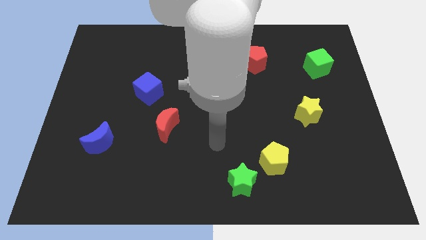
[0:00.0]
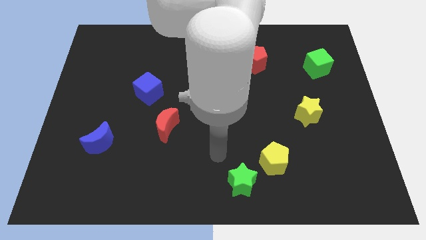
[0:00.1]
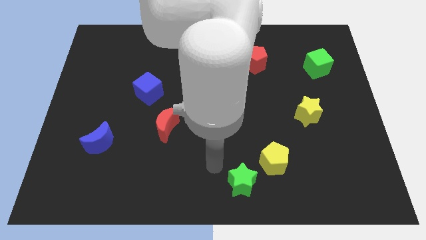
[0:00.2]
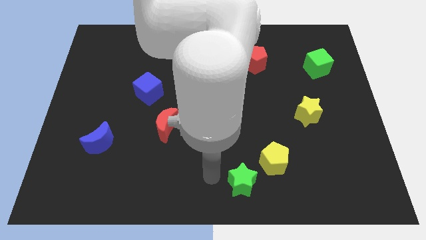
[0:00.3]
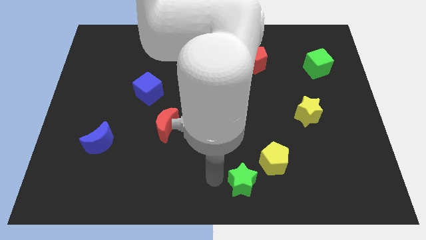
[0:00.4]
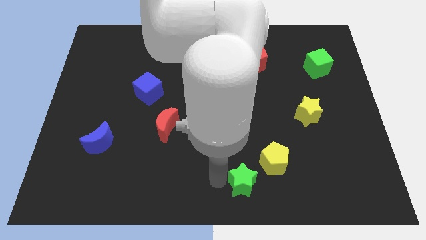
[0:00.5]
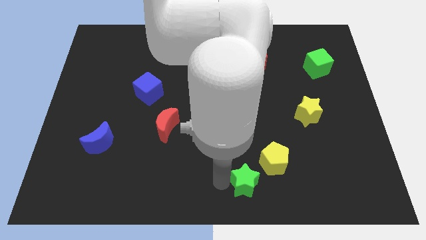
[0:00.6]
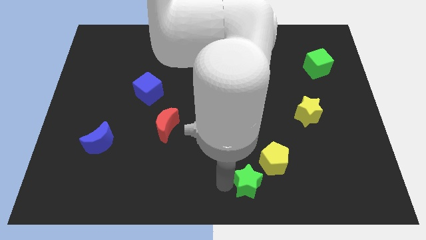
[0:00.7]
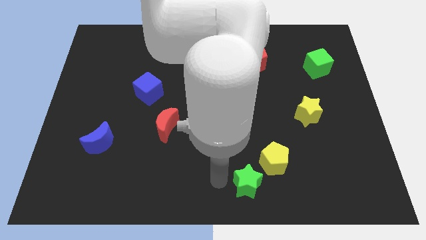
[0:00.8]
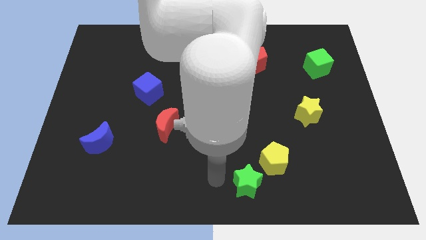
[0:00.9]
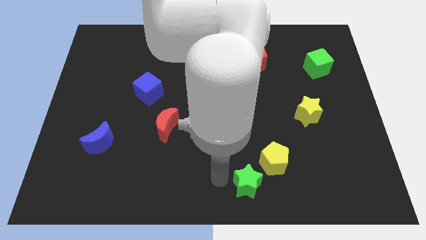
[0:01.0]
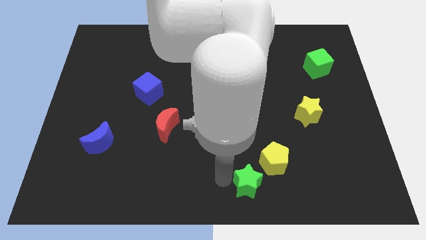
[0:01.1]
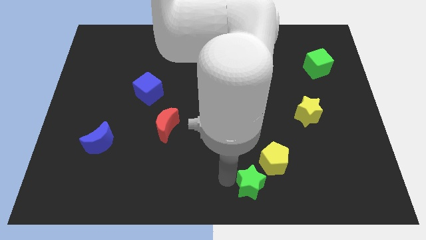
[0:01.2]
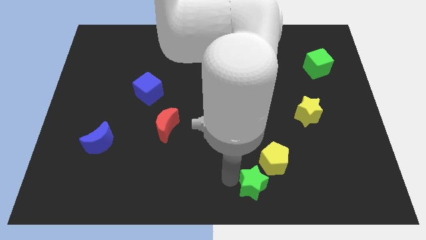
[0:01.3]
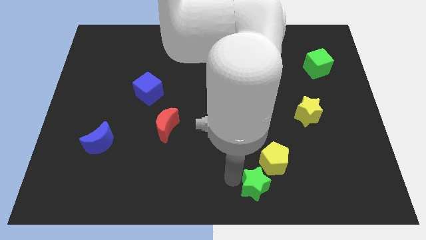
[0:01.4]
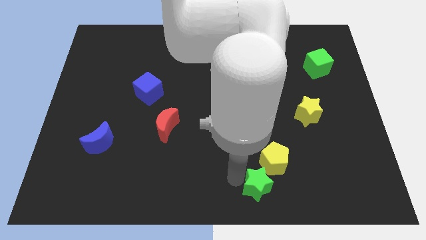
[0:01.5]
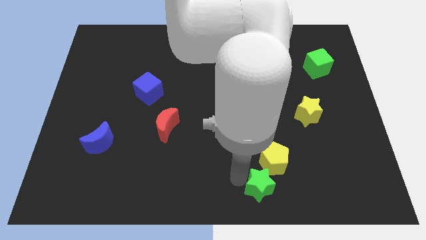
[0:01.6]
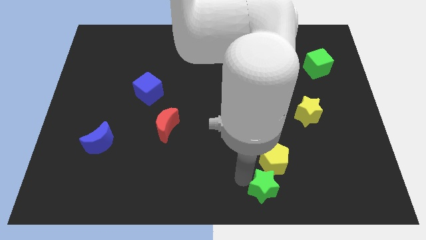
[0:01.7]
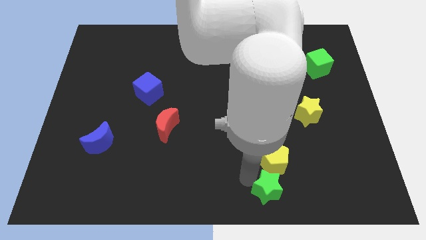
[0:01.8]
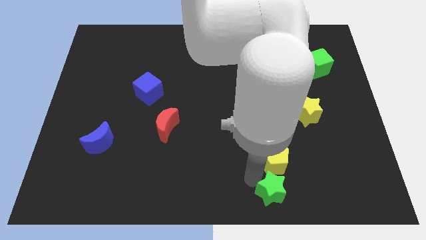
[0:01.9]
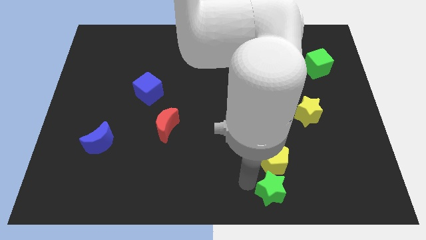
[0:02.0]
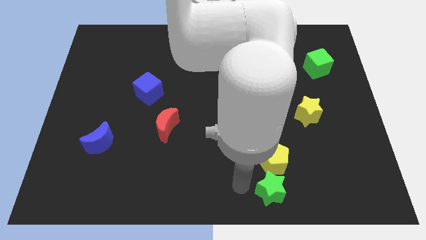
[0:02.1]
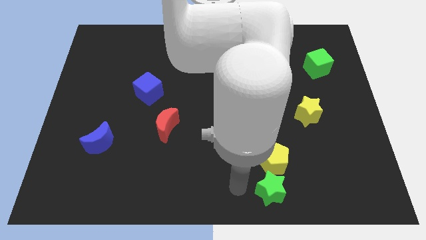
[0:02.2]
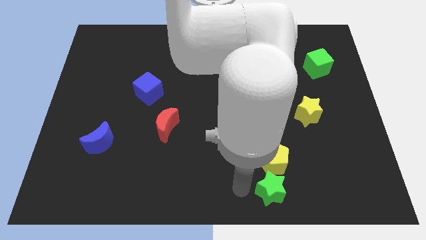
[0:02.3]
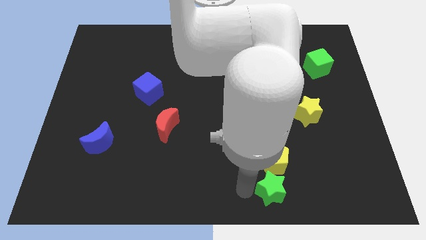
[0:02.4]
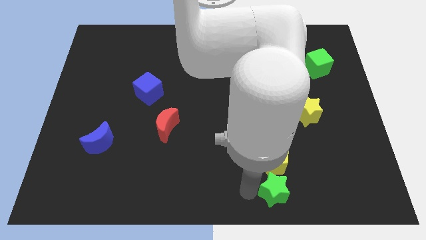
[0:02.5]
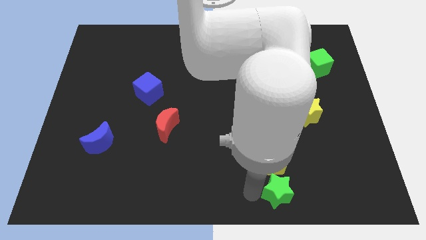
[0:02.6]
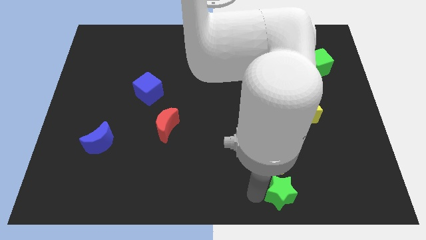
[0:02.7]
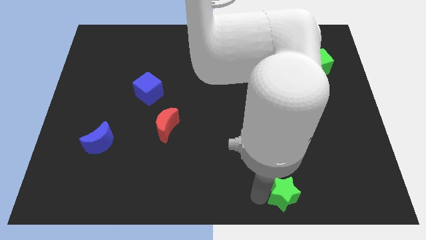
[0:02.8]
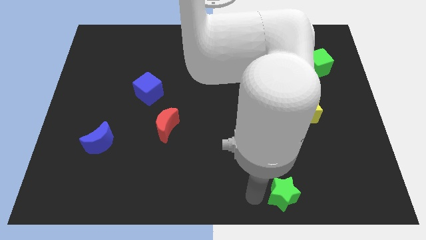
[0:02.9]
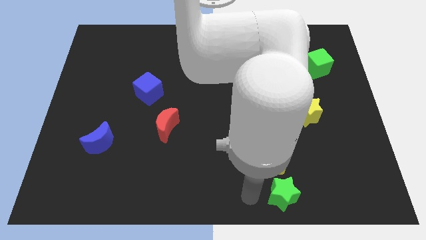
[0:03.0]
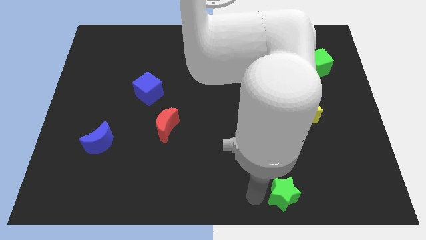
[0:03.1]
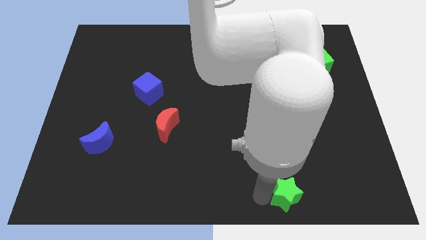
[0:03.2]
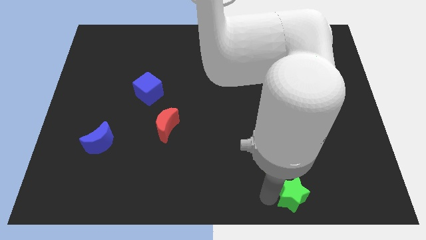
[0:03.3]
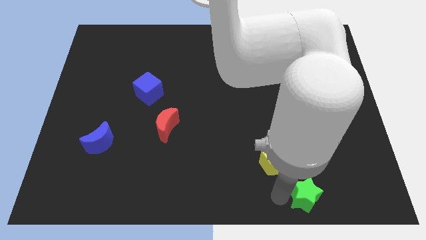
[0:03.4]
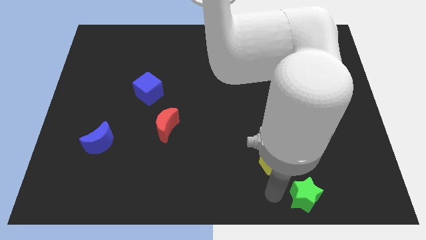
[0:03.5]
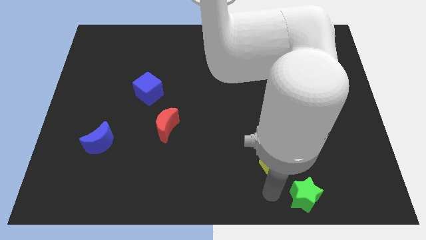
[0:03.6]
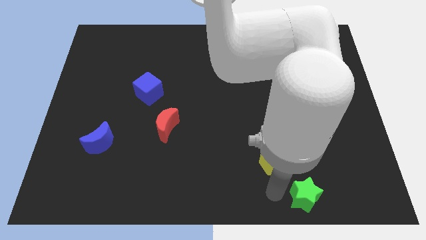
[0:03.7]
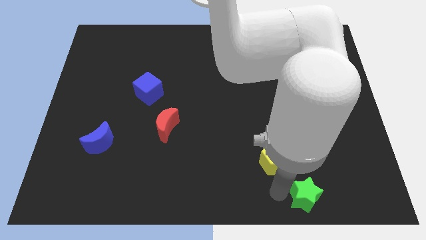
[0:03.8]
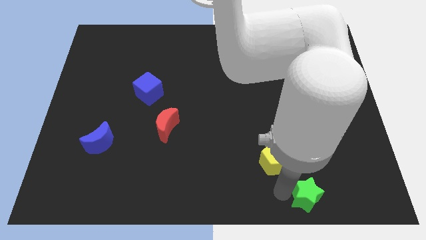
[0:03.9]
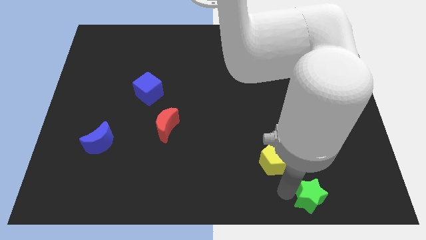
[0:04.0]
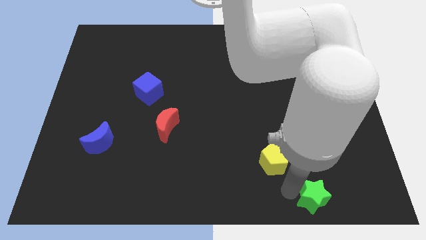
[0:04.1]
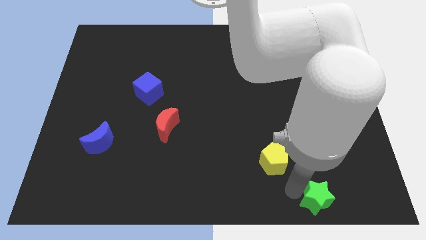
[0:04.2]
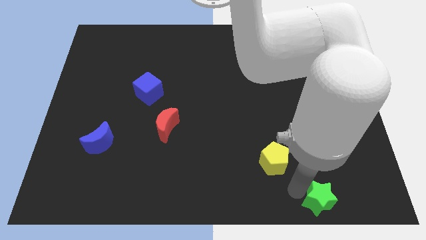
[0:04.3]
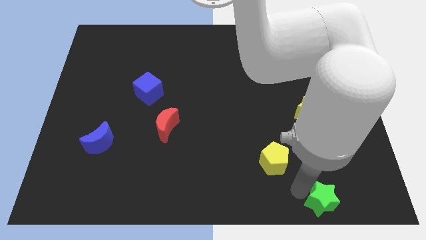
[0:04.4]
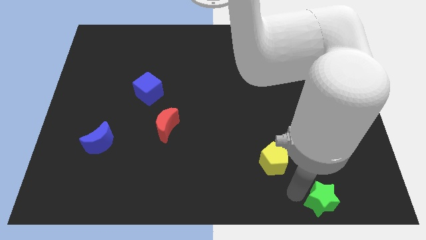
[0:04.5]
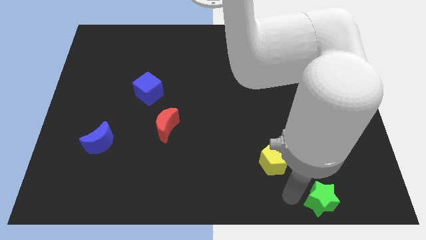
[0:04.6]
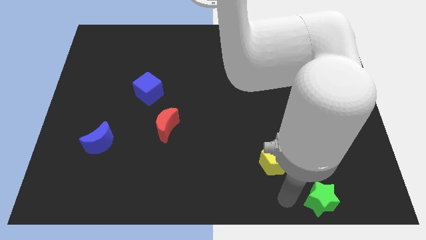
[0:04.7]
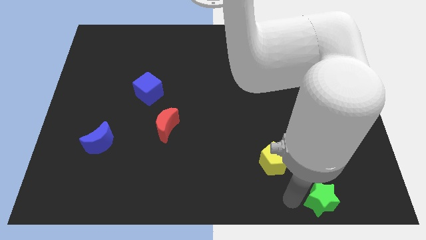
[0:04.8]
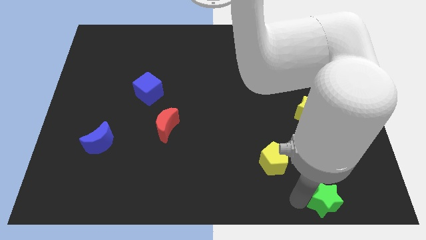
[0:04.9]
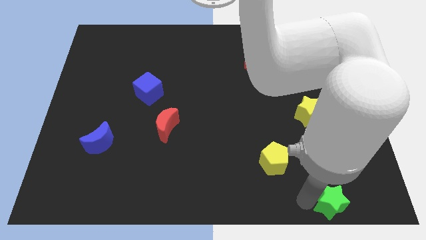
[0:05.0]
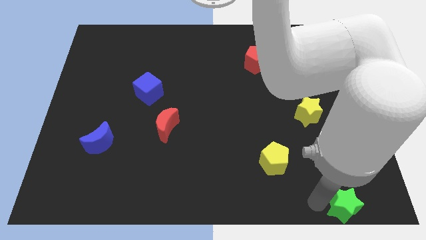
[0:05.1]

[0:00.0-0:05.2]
move the green star to the lower right corner

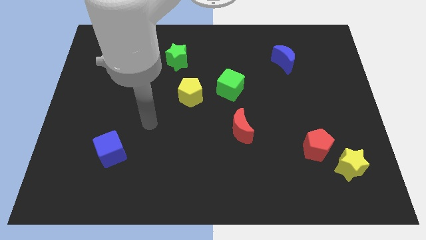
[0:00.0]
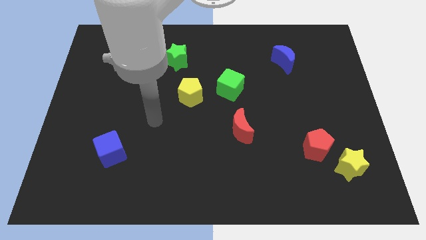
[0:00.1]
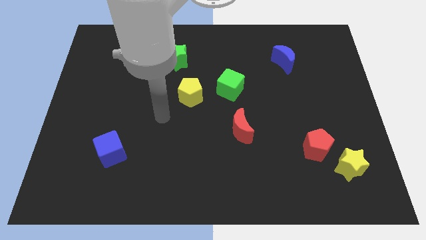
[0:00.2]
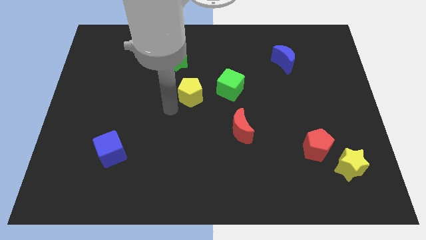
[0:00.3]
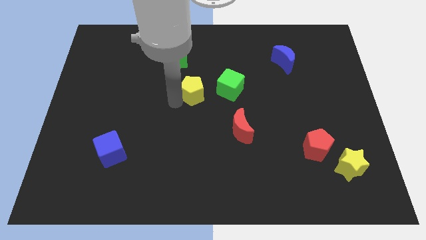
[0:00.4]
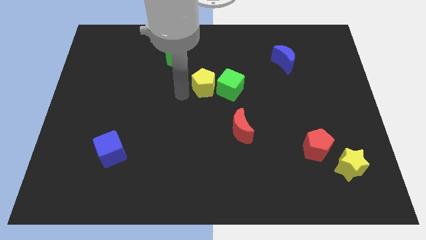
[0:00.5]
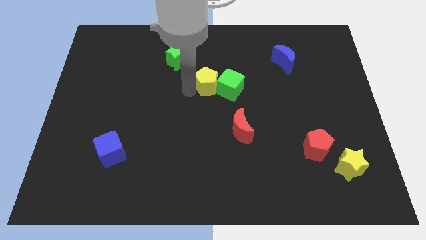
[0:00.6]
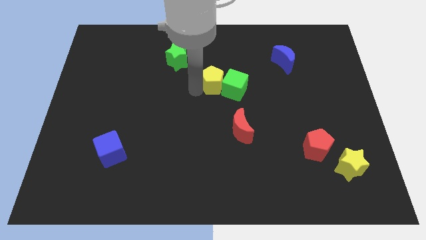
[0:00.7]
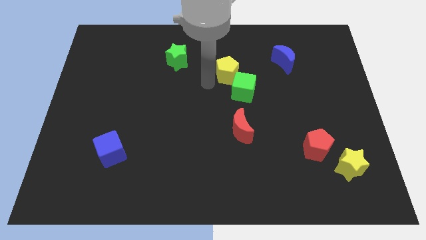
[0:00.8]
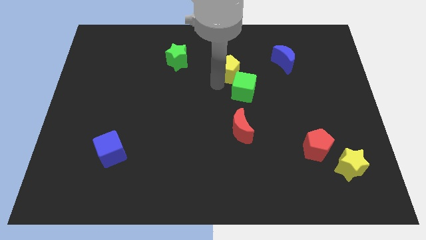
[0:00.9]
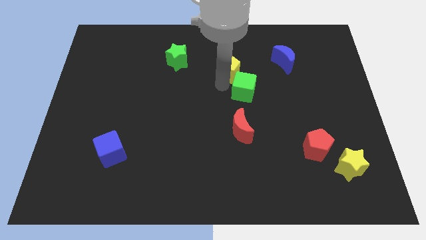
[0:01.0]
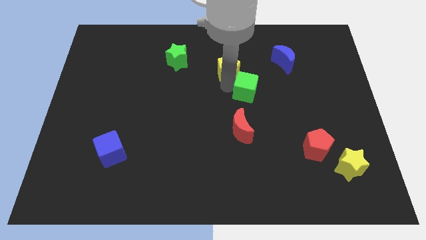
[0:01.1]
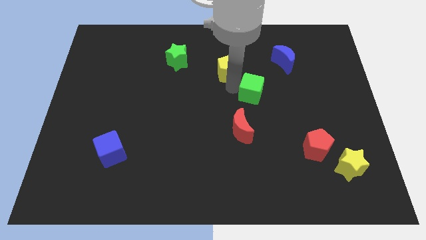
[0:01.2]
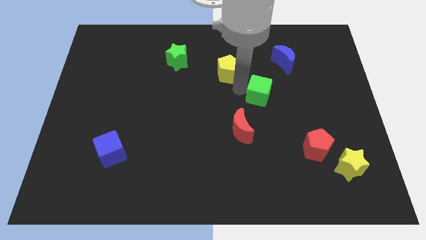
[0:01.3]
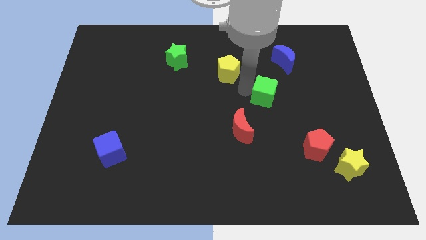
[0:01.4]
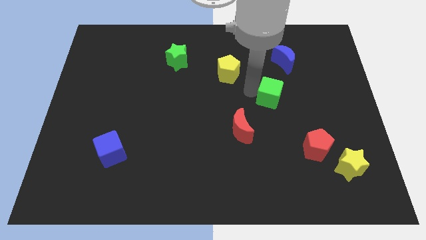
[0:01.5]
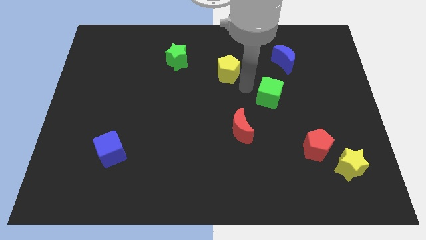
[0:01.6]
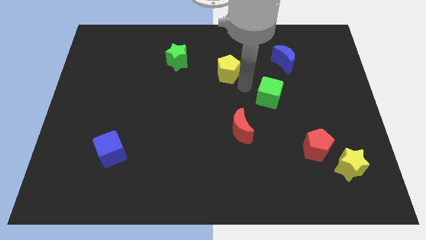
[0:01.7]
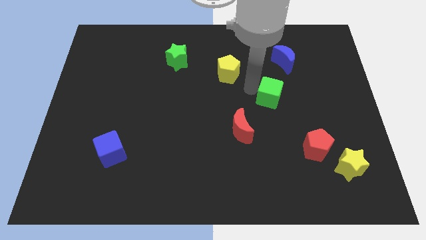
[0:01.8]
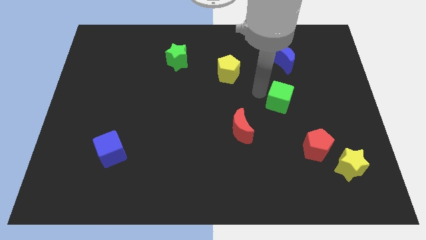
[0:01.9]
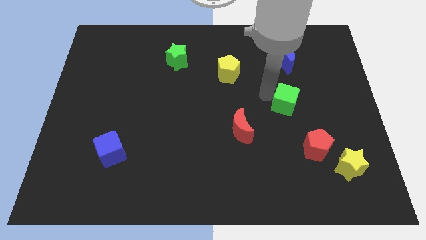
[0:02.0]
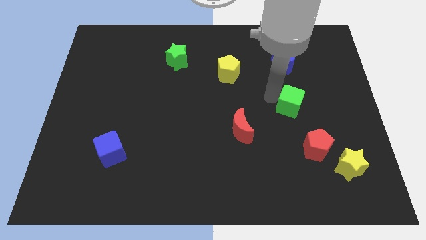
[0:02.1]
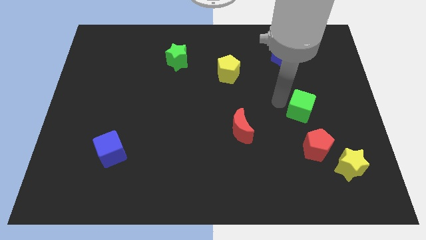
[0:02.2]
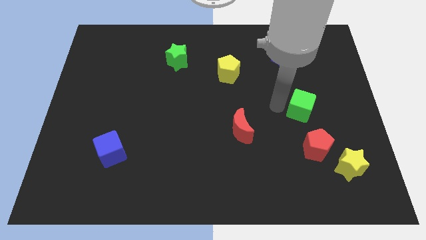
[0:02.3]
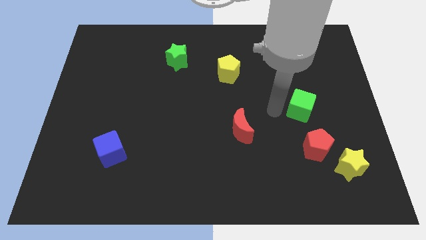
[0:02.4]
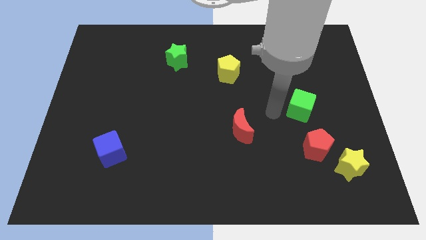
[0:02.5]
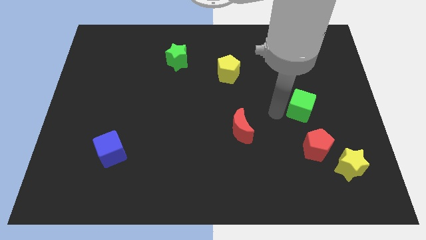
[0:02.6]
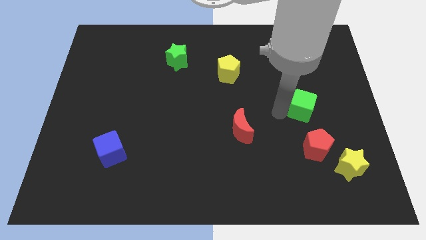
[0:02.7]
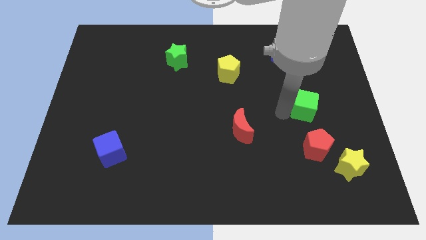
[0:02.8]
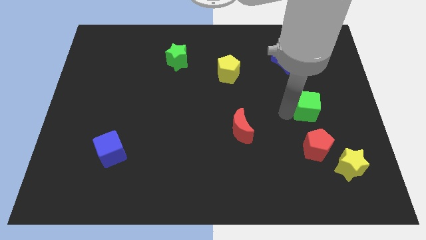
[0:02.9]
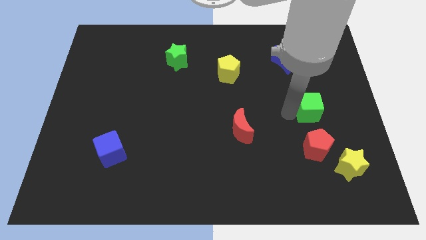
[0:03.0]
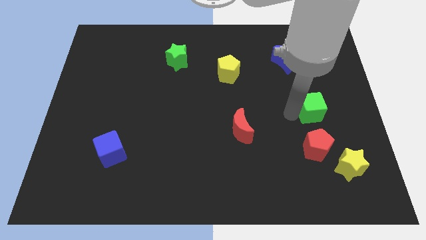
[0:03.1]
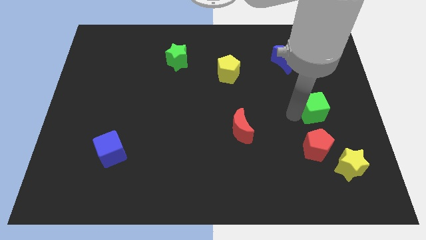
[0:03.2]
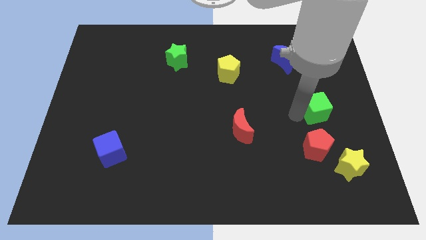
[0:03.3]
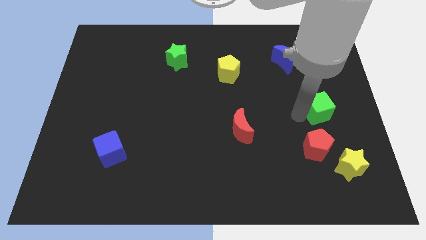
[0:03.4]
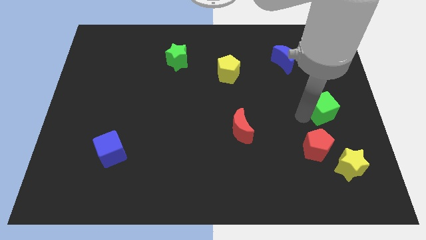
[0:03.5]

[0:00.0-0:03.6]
put the green cube to the right side
